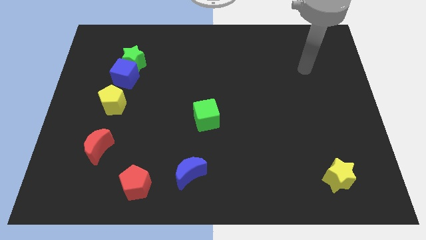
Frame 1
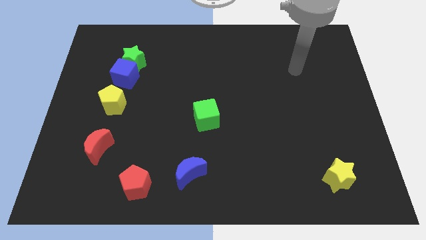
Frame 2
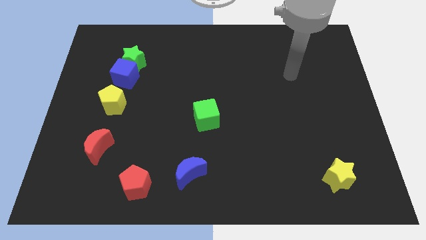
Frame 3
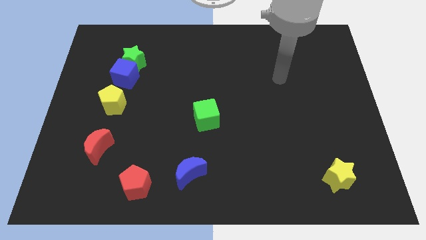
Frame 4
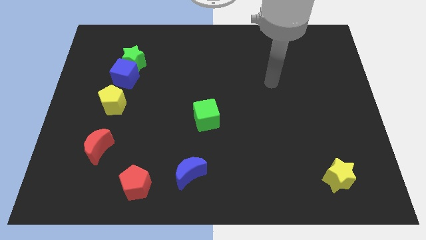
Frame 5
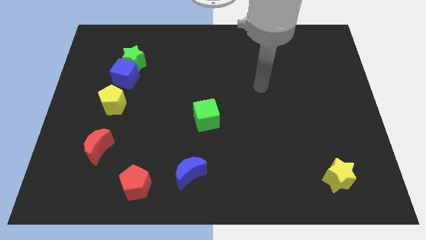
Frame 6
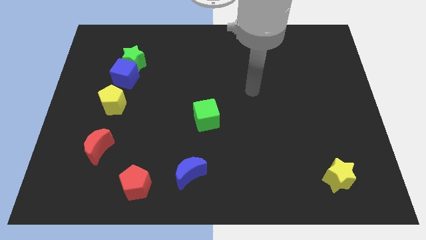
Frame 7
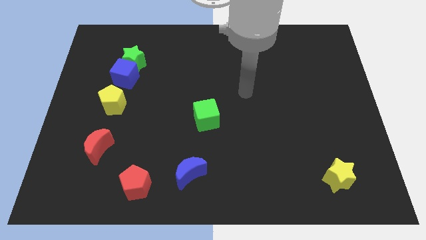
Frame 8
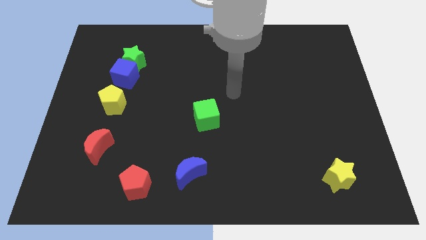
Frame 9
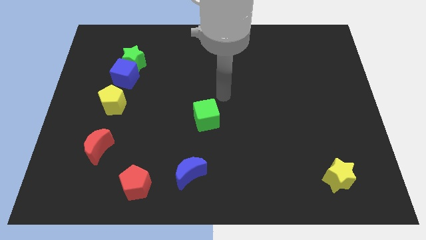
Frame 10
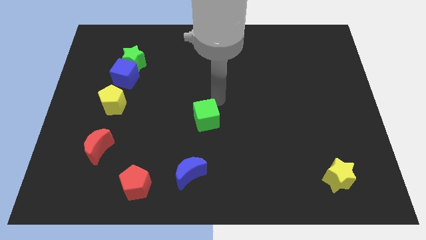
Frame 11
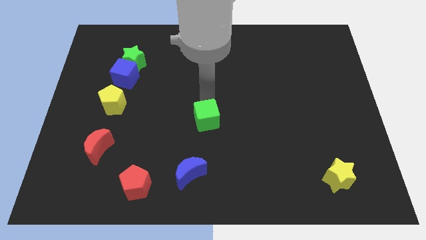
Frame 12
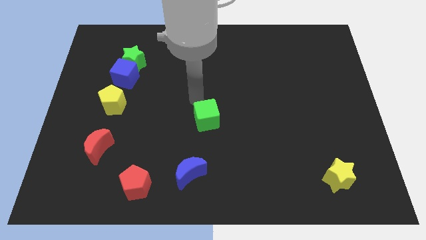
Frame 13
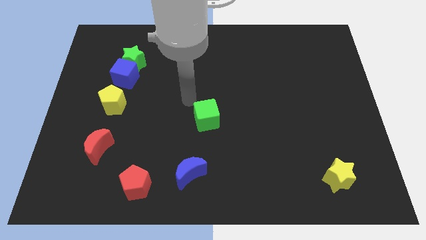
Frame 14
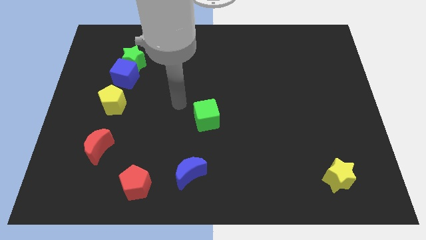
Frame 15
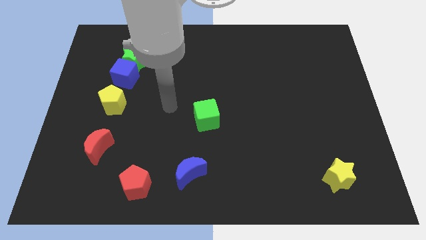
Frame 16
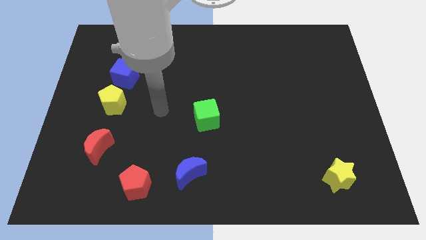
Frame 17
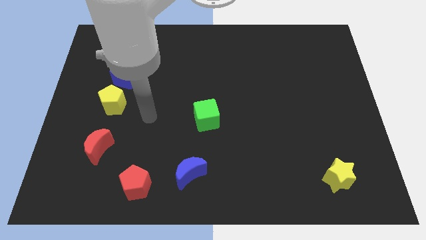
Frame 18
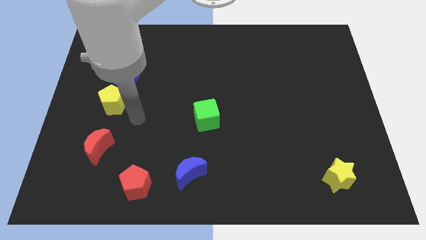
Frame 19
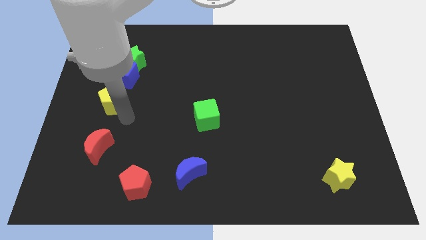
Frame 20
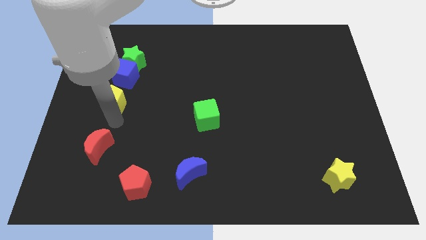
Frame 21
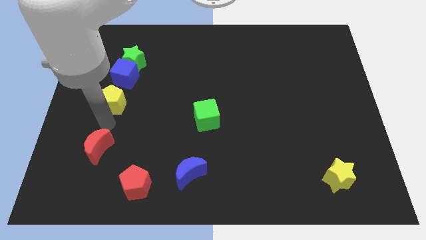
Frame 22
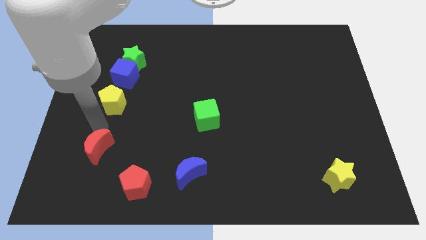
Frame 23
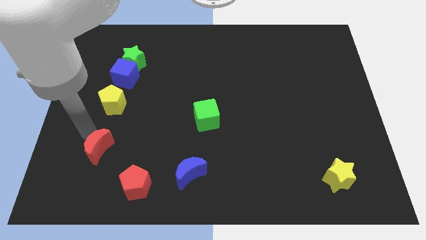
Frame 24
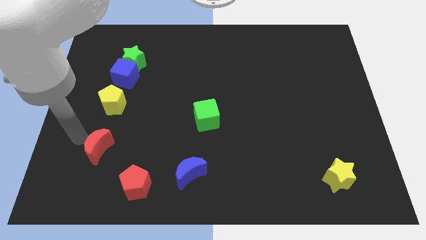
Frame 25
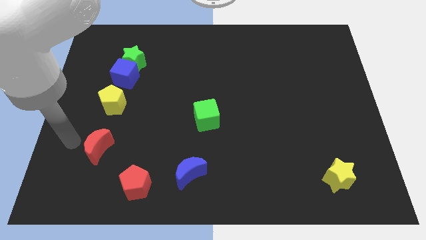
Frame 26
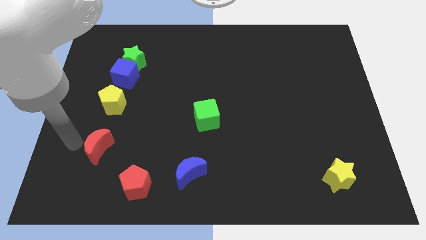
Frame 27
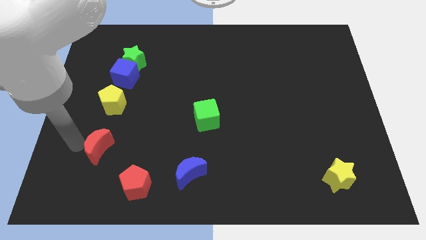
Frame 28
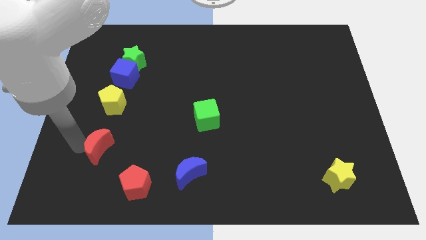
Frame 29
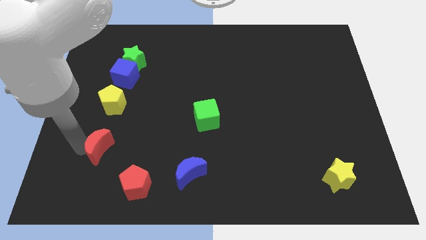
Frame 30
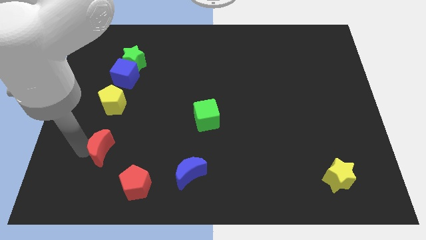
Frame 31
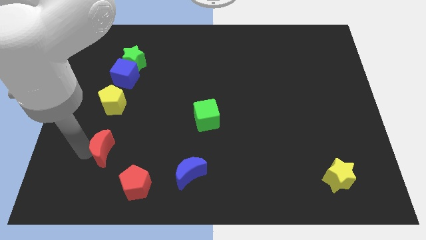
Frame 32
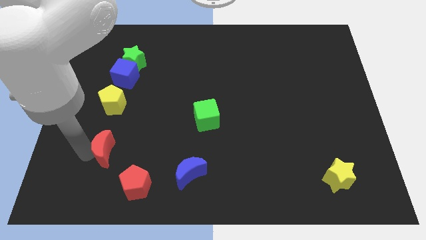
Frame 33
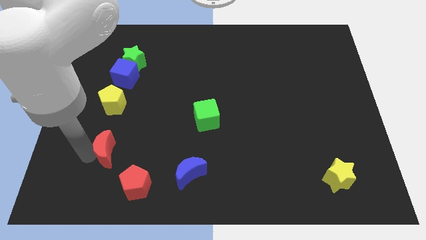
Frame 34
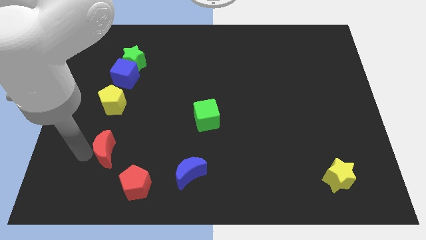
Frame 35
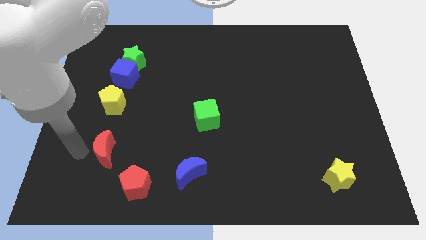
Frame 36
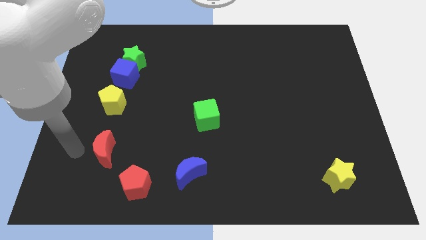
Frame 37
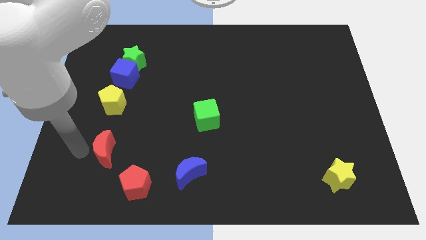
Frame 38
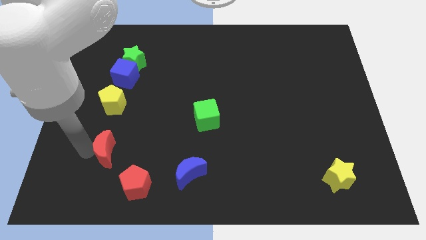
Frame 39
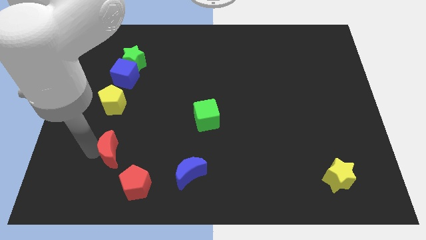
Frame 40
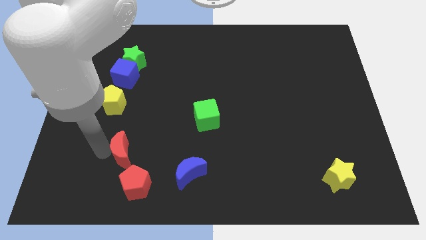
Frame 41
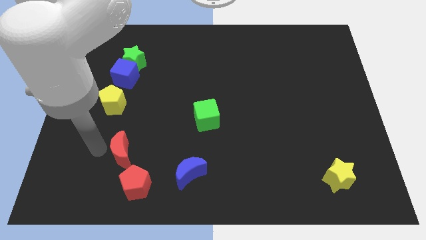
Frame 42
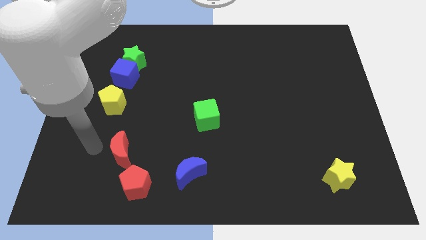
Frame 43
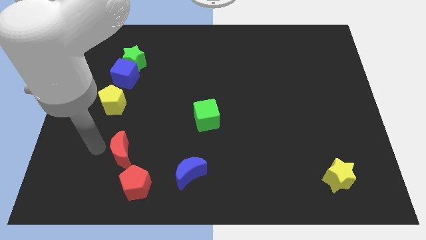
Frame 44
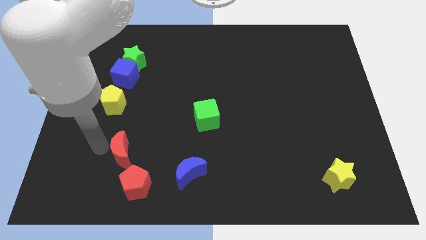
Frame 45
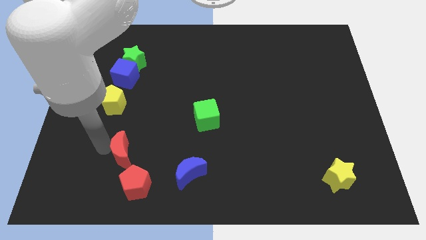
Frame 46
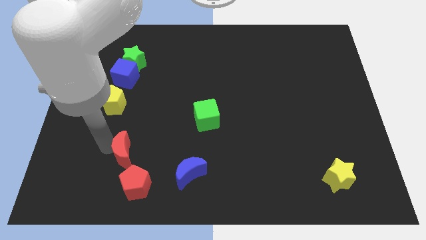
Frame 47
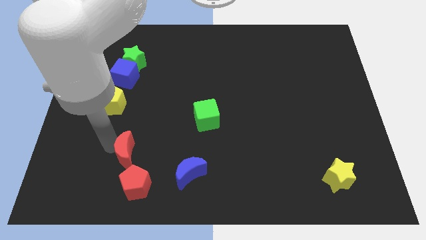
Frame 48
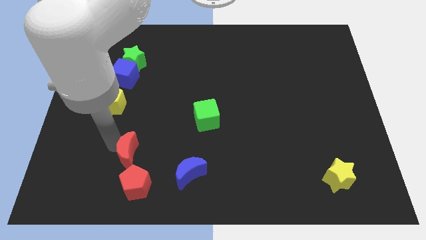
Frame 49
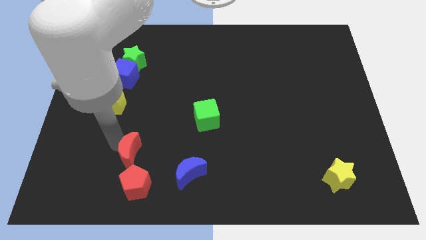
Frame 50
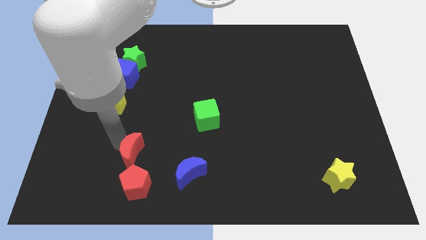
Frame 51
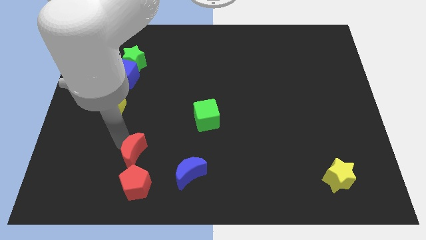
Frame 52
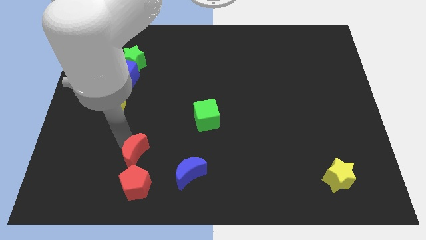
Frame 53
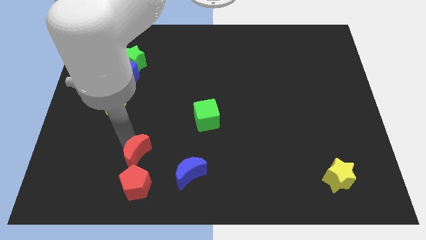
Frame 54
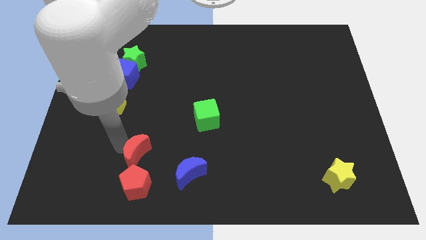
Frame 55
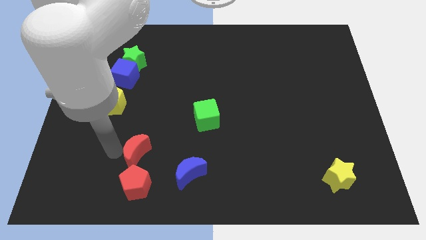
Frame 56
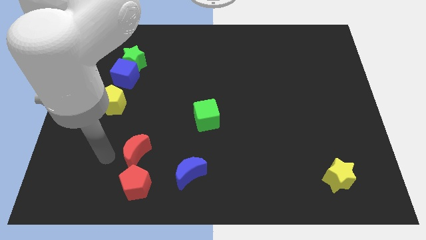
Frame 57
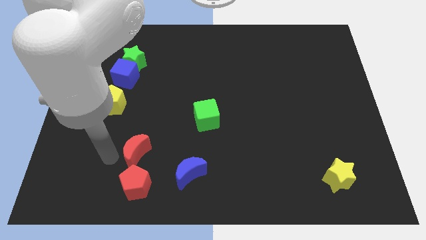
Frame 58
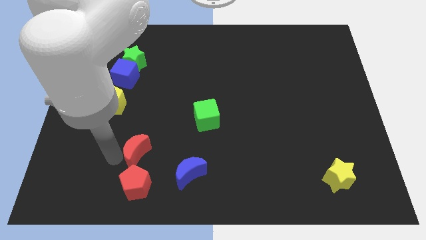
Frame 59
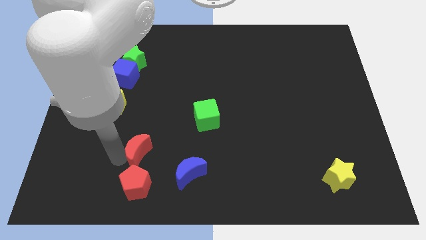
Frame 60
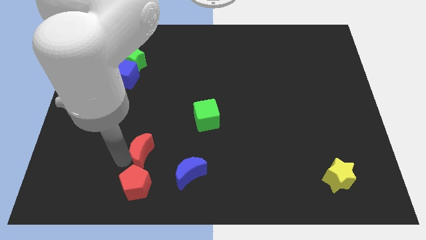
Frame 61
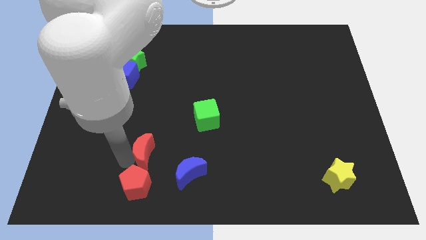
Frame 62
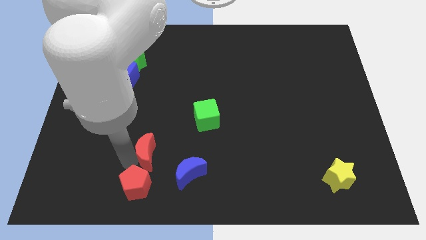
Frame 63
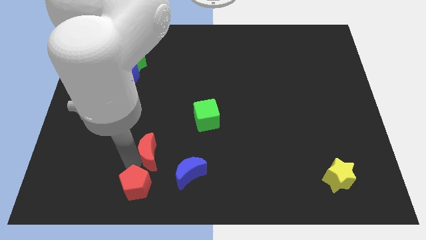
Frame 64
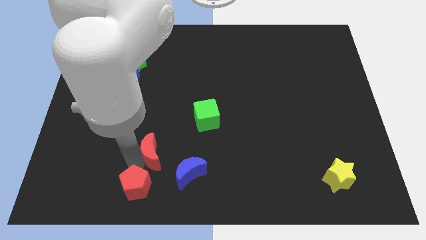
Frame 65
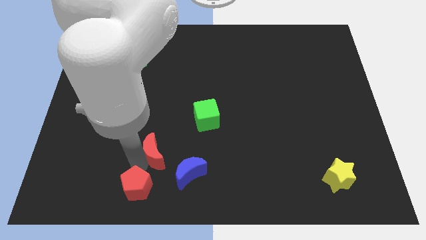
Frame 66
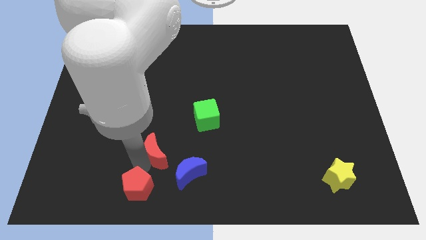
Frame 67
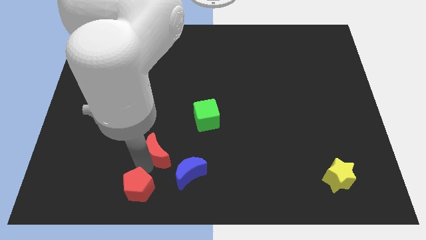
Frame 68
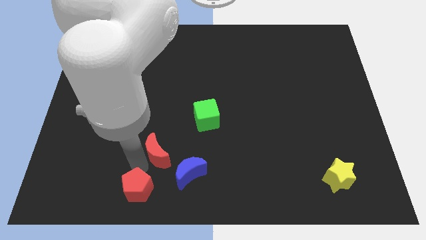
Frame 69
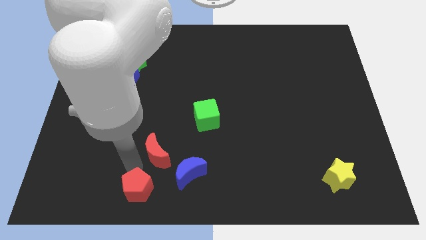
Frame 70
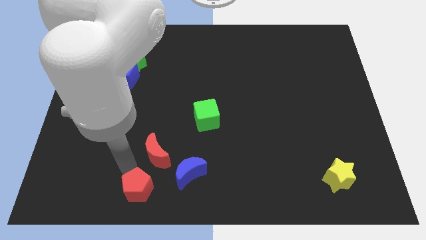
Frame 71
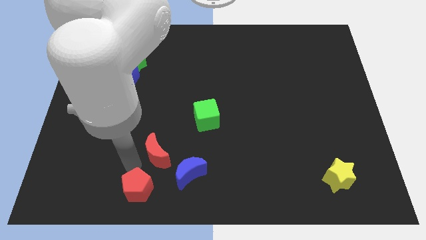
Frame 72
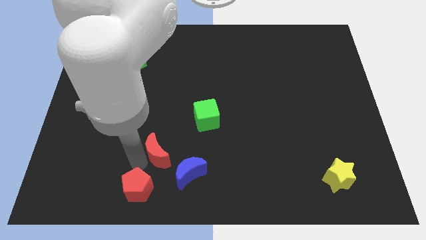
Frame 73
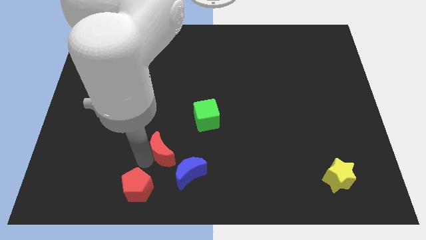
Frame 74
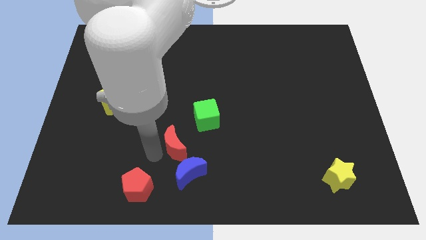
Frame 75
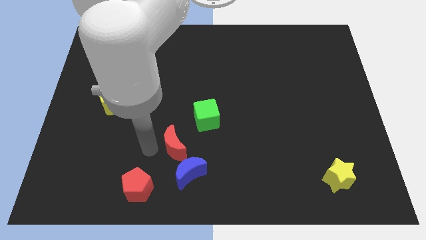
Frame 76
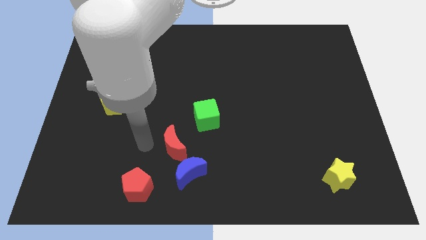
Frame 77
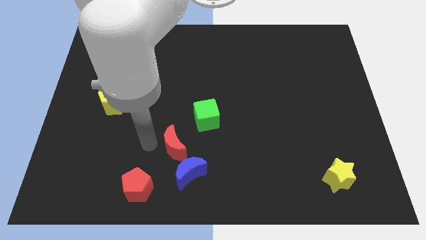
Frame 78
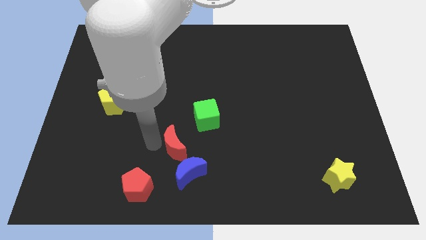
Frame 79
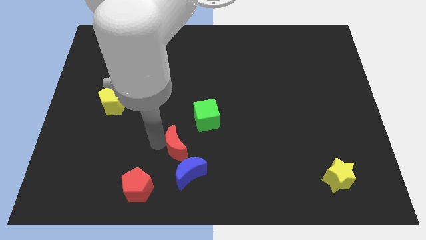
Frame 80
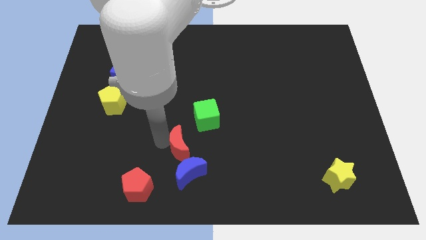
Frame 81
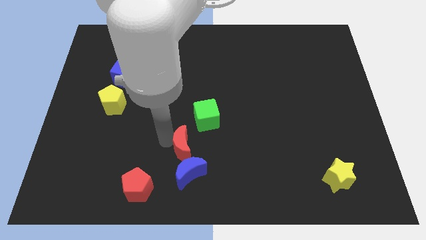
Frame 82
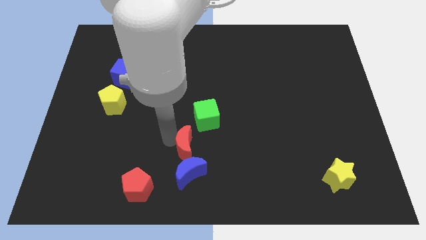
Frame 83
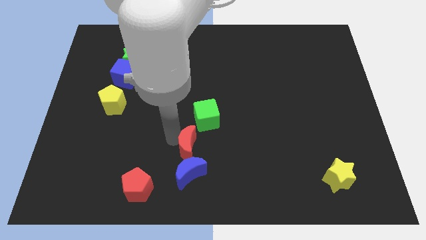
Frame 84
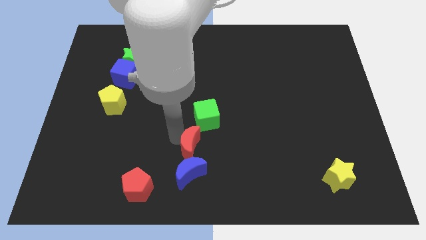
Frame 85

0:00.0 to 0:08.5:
put the red moon to the top right of the blue moon
